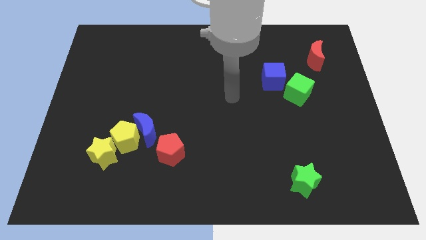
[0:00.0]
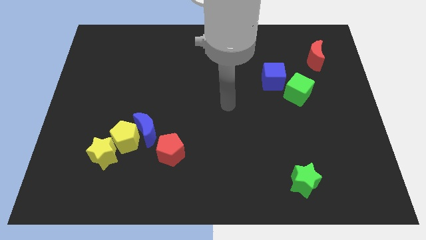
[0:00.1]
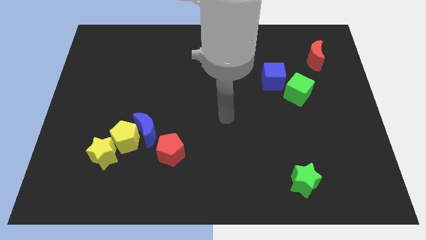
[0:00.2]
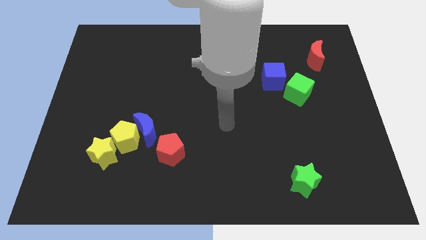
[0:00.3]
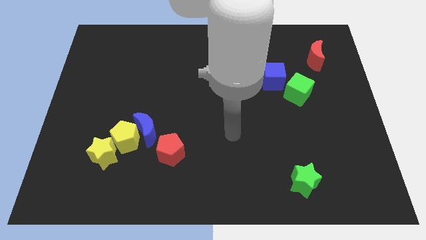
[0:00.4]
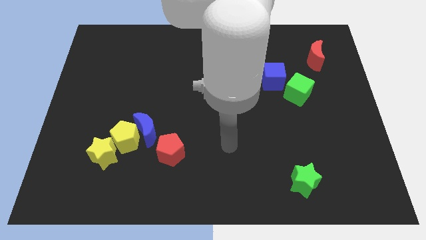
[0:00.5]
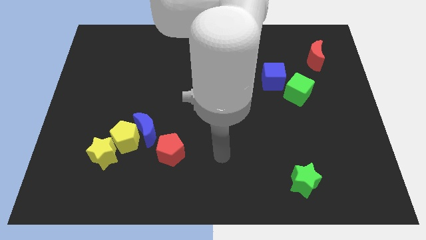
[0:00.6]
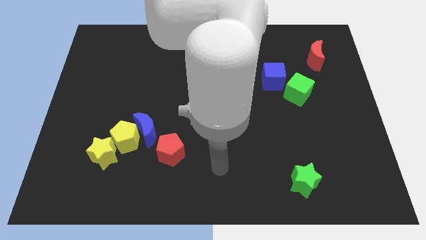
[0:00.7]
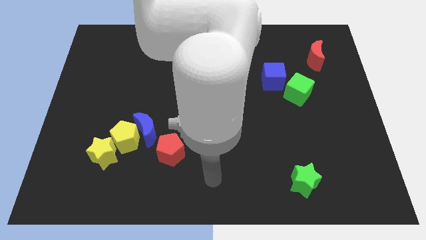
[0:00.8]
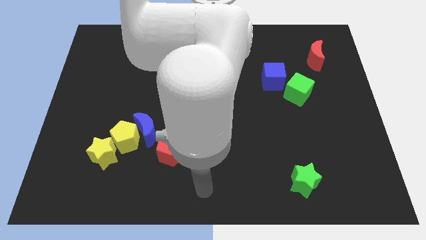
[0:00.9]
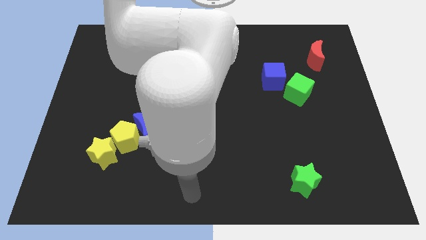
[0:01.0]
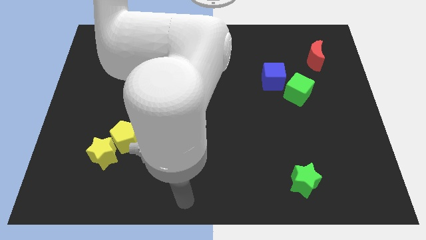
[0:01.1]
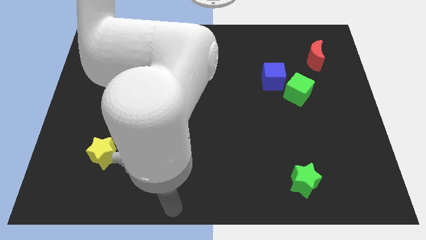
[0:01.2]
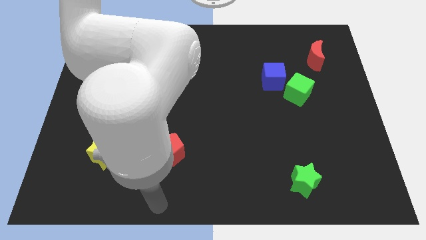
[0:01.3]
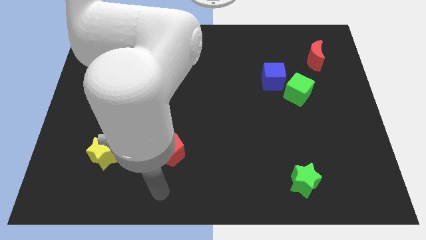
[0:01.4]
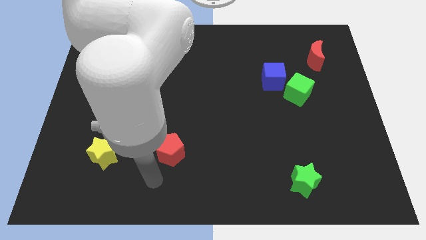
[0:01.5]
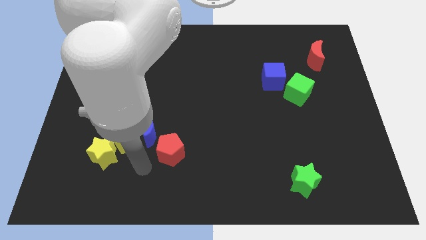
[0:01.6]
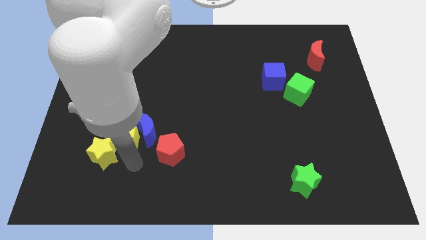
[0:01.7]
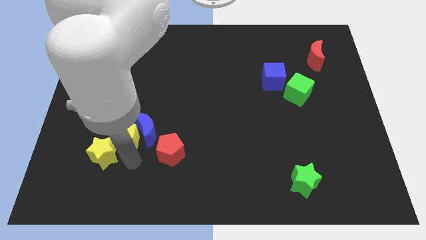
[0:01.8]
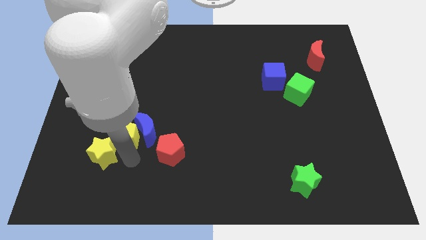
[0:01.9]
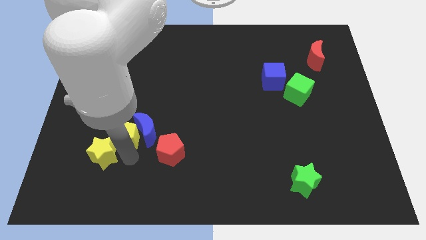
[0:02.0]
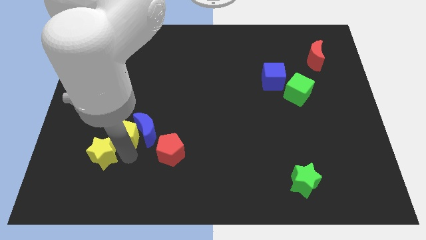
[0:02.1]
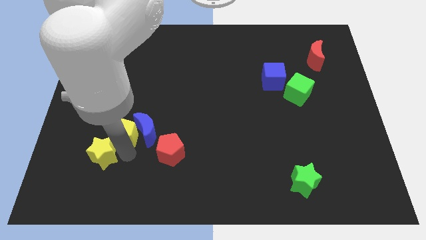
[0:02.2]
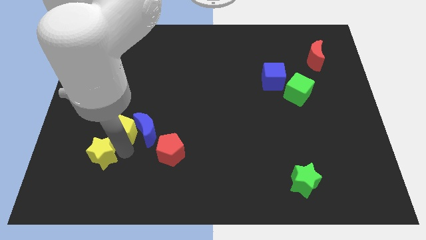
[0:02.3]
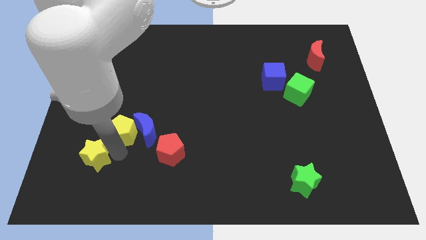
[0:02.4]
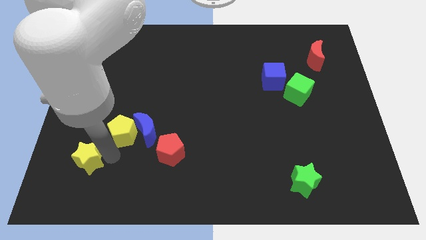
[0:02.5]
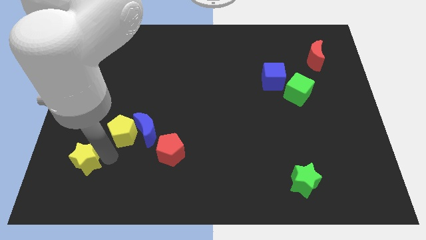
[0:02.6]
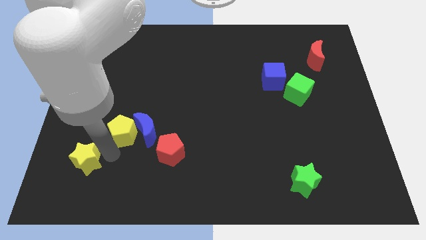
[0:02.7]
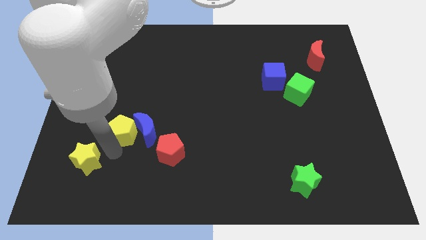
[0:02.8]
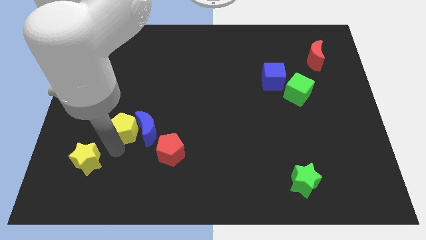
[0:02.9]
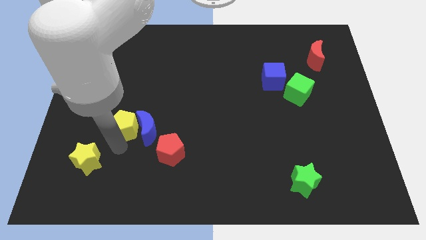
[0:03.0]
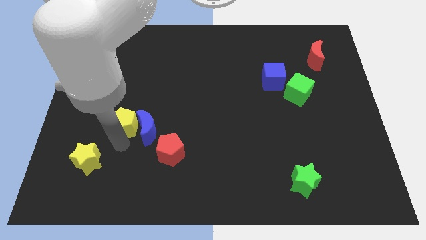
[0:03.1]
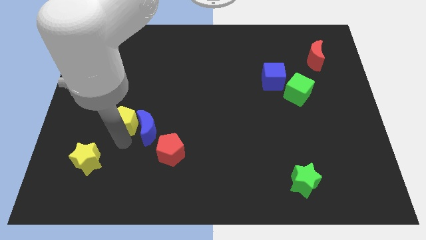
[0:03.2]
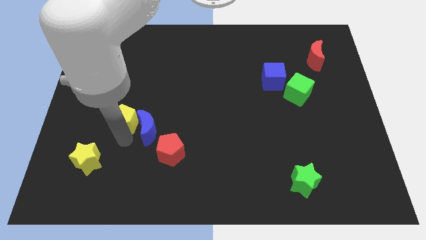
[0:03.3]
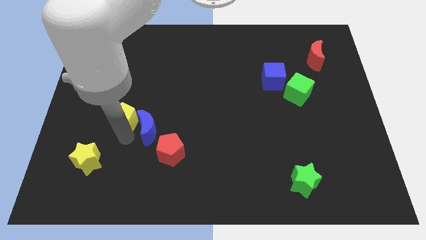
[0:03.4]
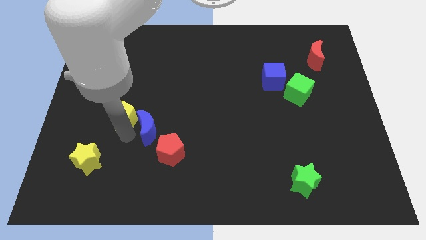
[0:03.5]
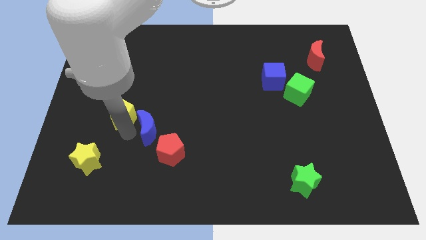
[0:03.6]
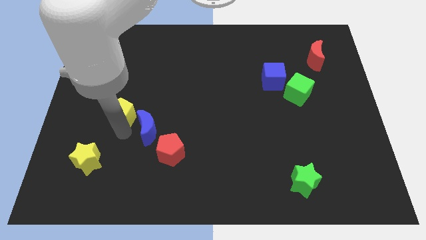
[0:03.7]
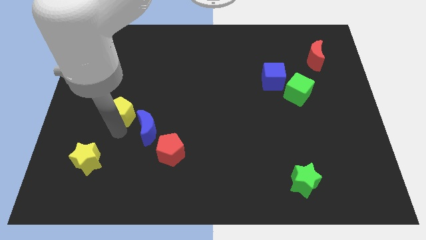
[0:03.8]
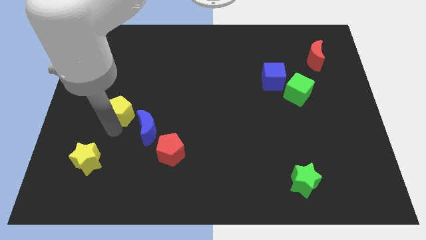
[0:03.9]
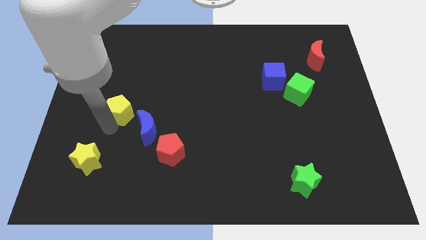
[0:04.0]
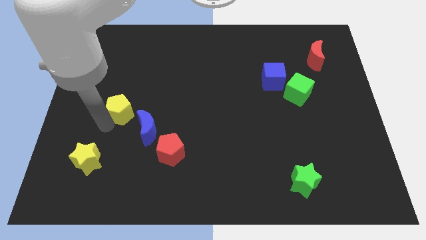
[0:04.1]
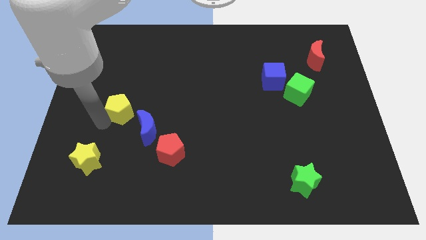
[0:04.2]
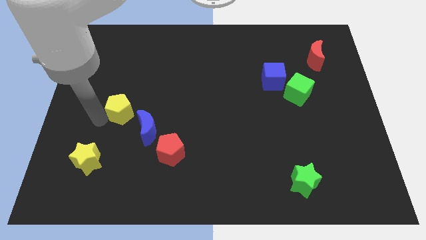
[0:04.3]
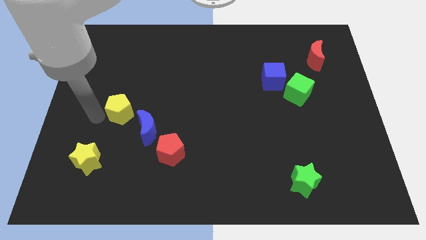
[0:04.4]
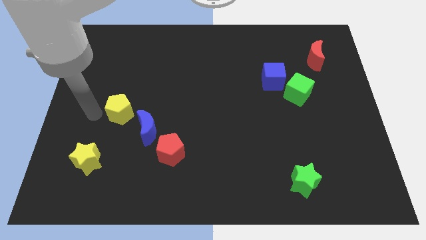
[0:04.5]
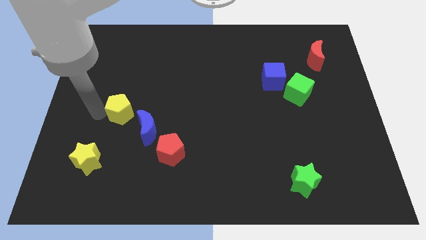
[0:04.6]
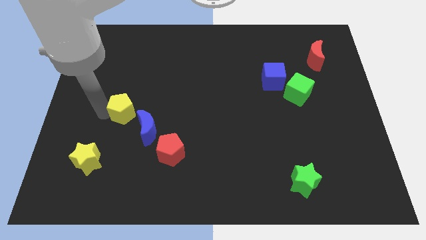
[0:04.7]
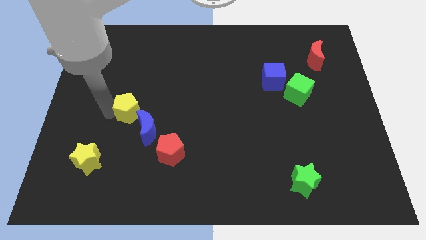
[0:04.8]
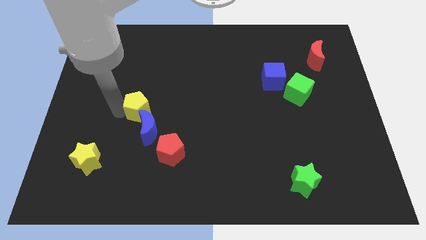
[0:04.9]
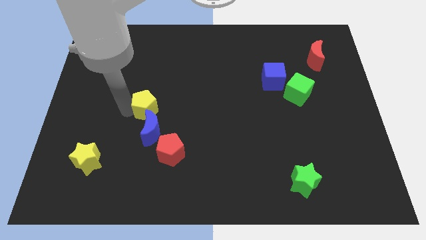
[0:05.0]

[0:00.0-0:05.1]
push the yellow pentagon upwards and to the right diagonally a little bit

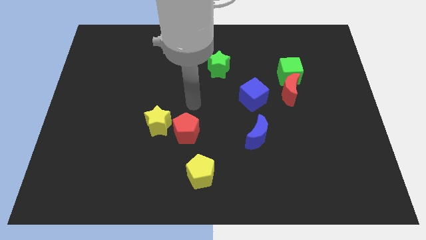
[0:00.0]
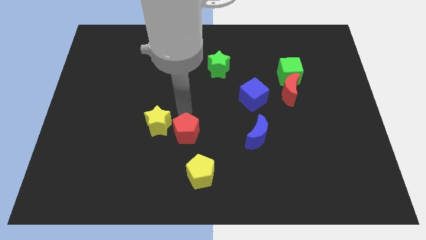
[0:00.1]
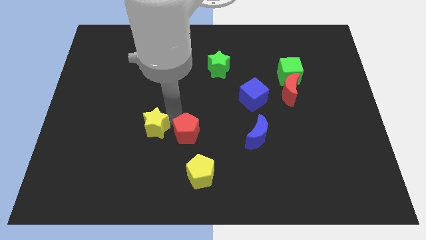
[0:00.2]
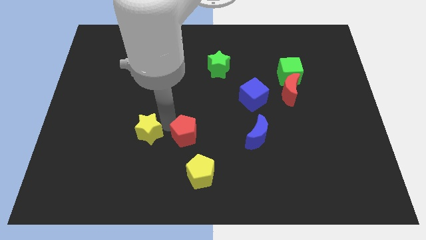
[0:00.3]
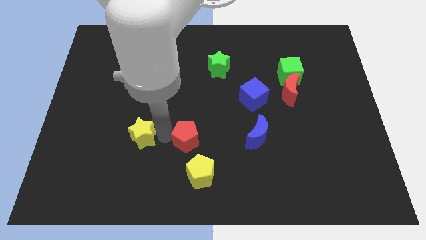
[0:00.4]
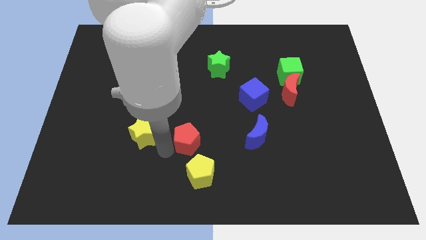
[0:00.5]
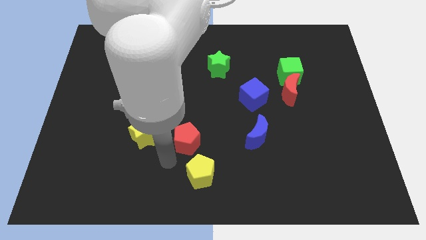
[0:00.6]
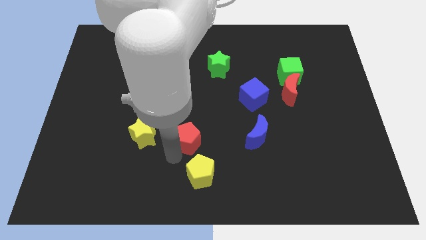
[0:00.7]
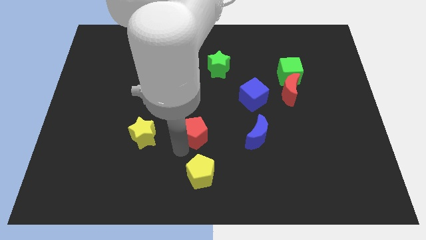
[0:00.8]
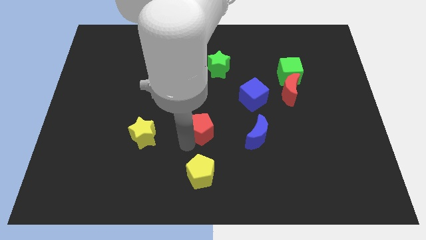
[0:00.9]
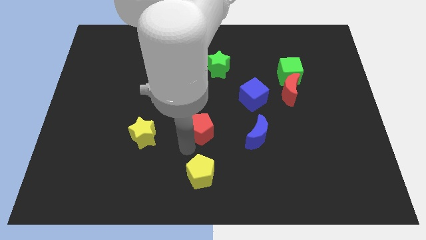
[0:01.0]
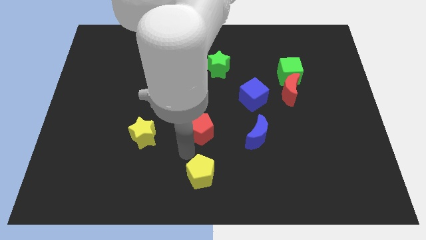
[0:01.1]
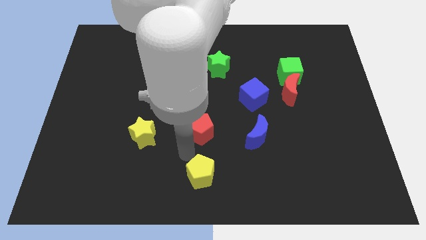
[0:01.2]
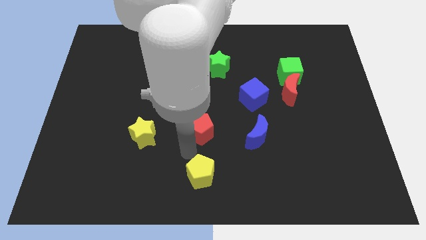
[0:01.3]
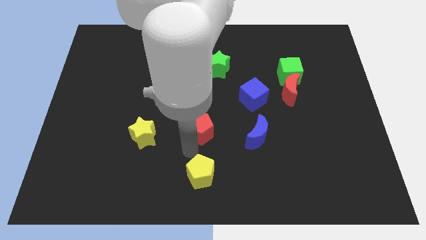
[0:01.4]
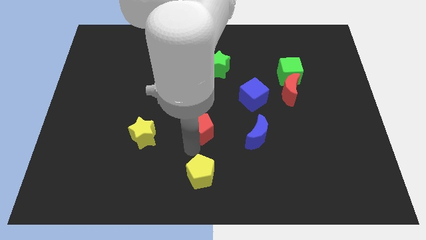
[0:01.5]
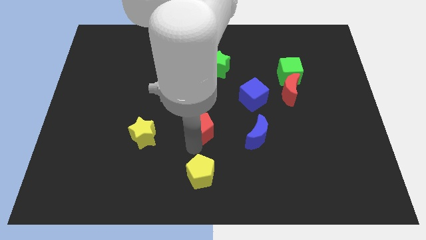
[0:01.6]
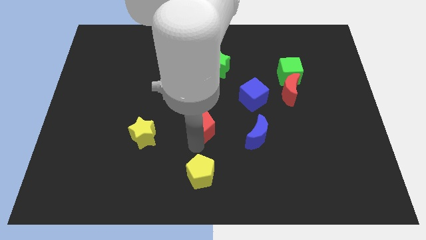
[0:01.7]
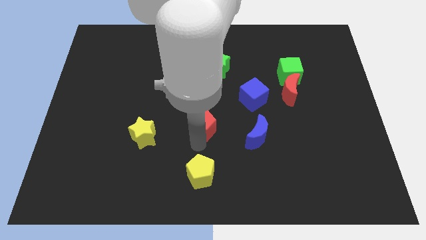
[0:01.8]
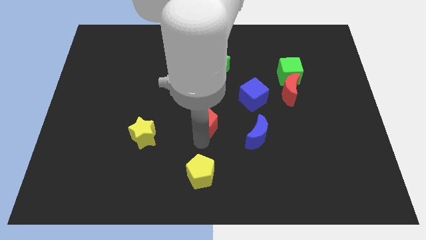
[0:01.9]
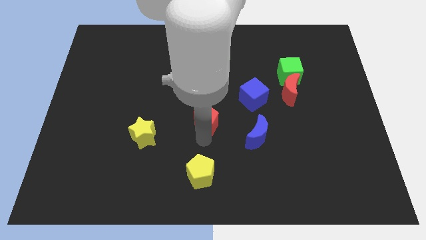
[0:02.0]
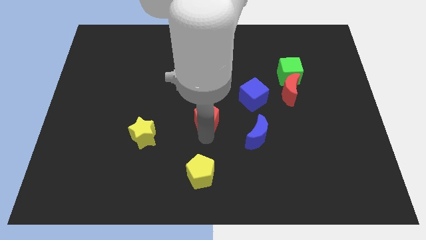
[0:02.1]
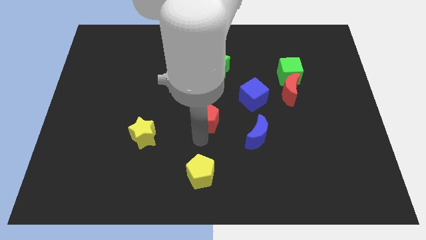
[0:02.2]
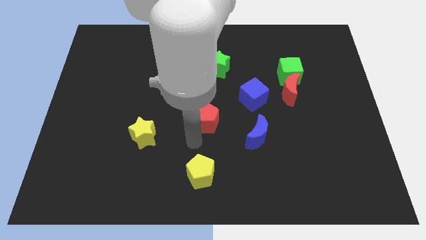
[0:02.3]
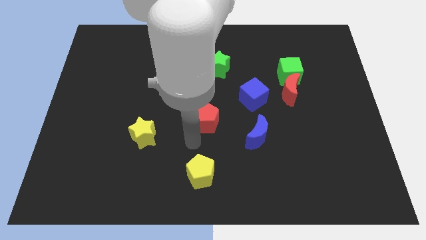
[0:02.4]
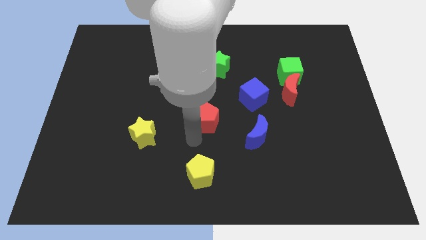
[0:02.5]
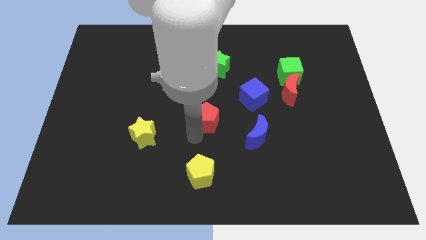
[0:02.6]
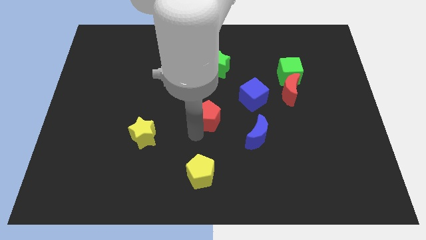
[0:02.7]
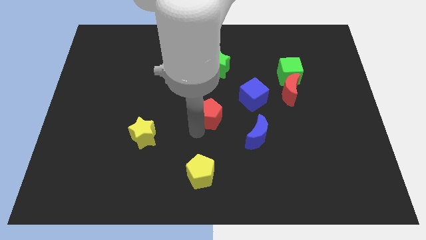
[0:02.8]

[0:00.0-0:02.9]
move the red pentagon upwards and right diagonally a little bit

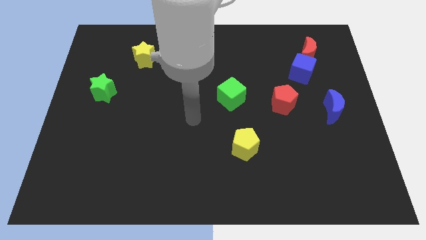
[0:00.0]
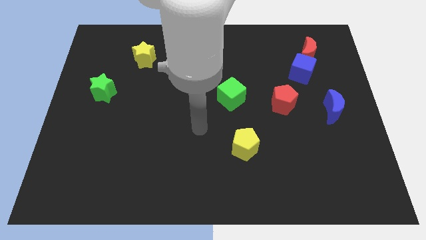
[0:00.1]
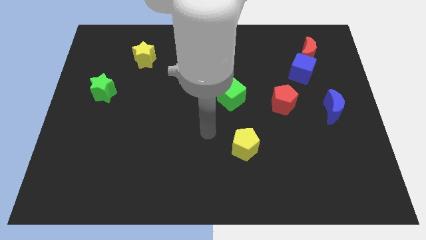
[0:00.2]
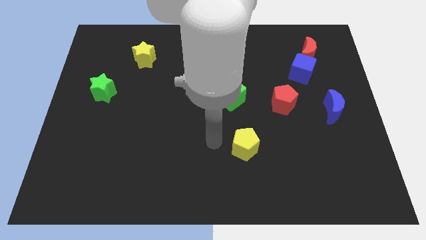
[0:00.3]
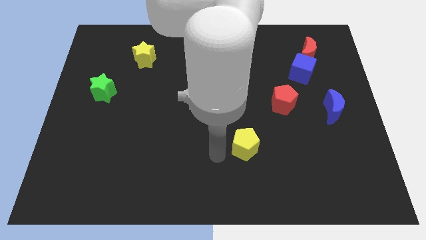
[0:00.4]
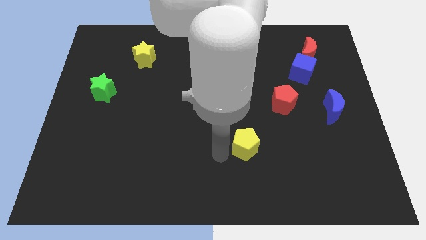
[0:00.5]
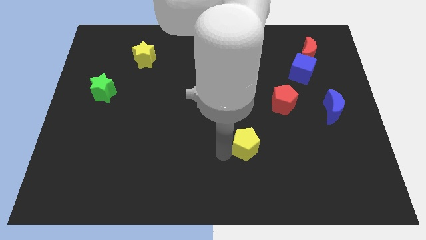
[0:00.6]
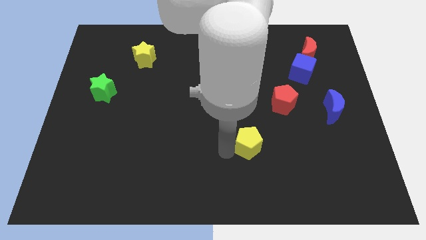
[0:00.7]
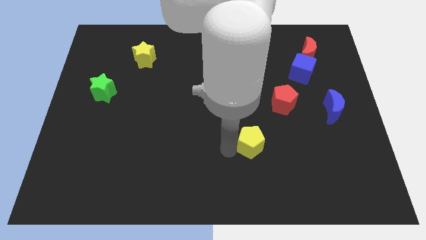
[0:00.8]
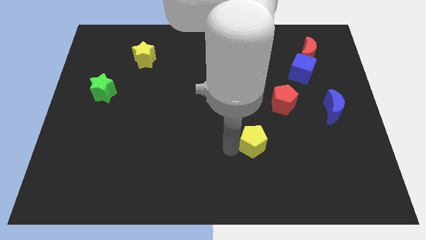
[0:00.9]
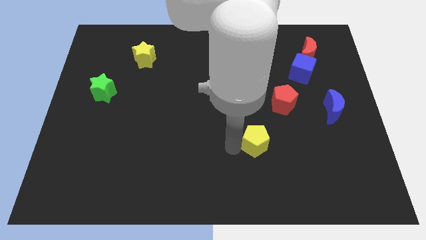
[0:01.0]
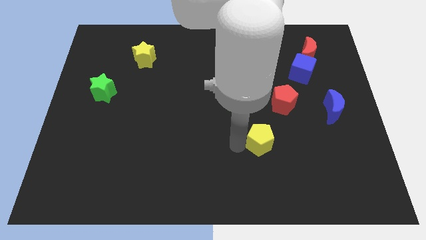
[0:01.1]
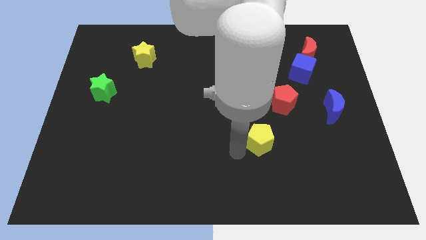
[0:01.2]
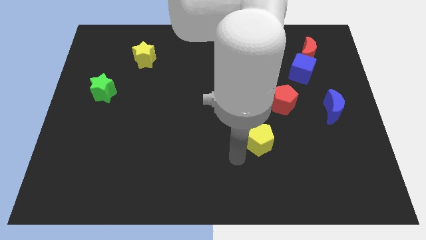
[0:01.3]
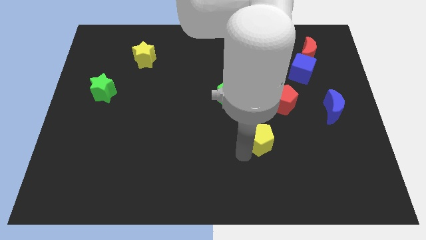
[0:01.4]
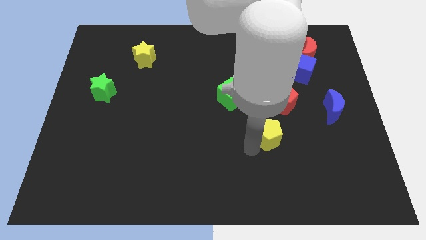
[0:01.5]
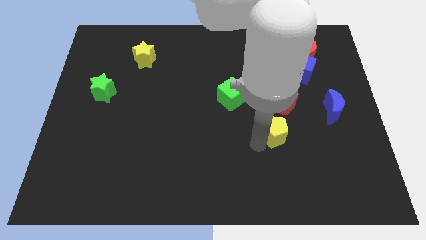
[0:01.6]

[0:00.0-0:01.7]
slightly slide the yellow pentagon diagonally up and right
